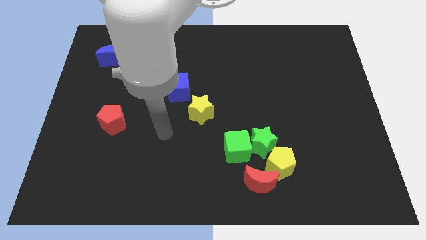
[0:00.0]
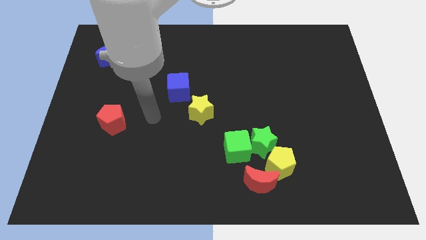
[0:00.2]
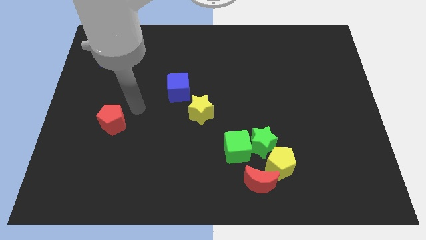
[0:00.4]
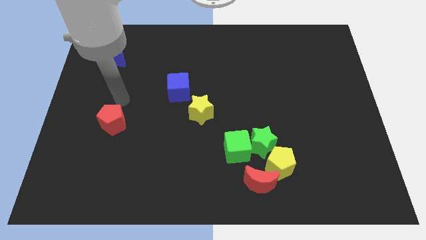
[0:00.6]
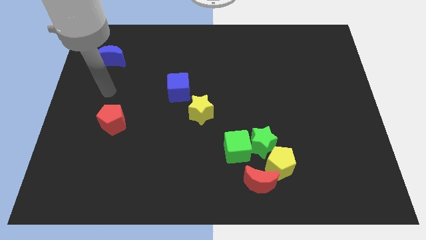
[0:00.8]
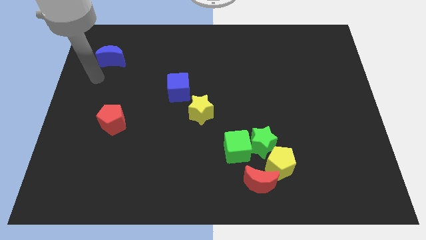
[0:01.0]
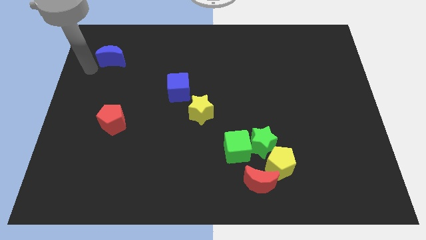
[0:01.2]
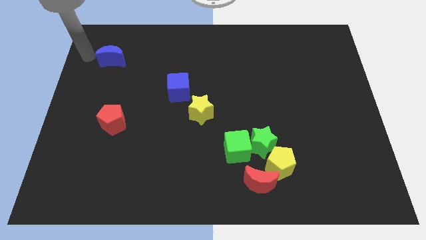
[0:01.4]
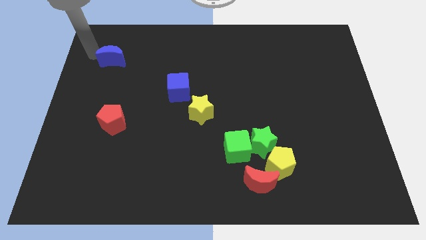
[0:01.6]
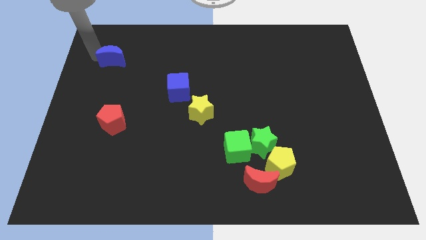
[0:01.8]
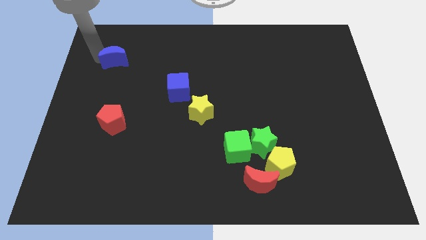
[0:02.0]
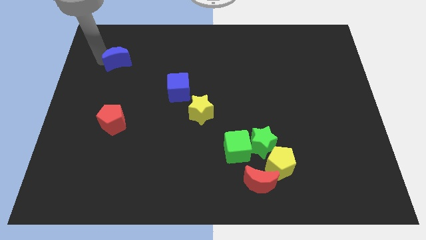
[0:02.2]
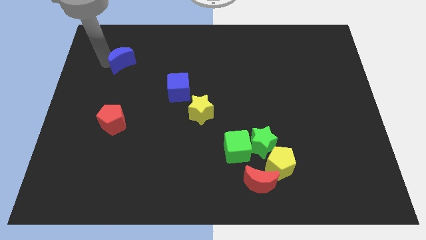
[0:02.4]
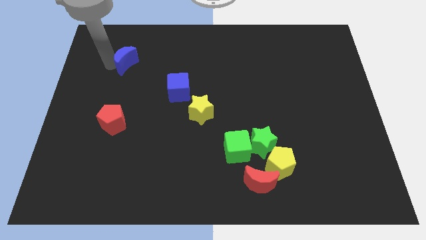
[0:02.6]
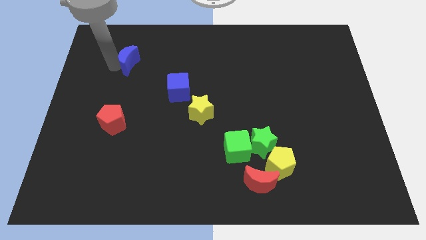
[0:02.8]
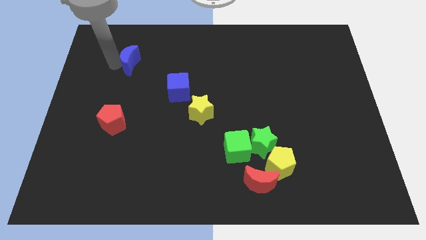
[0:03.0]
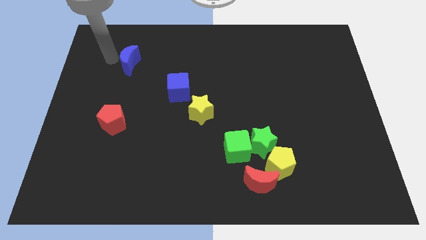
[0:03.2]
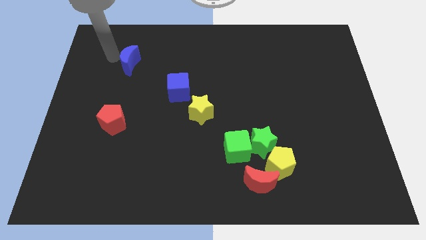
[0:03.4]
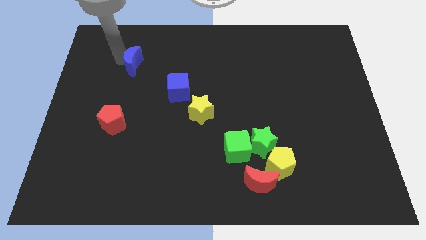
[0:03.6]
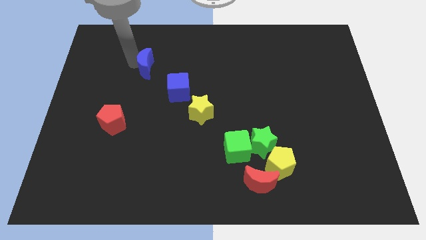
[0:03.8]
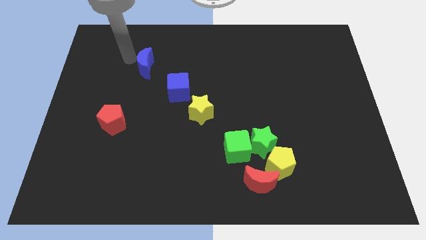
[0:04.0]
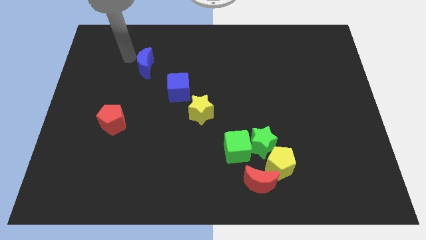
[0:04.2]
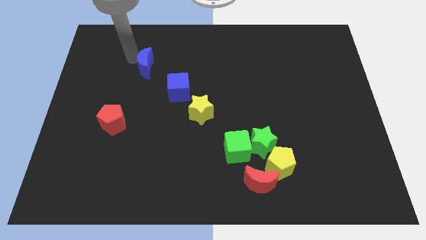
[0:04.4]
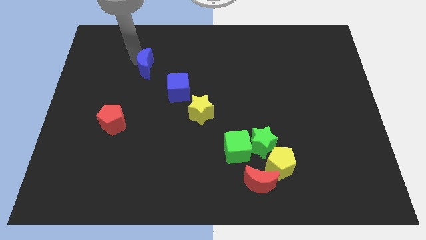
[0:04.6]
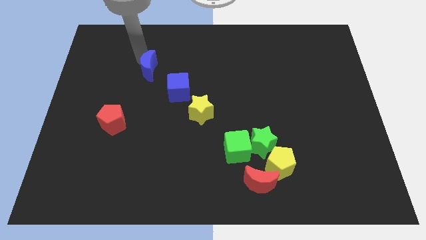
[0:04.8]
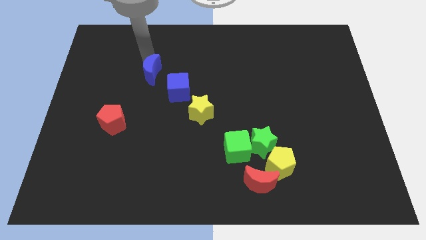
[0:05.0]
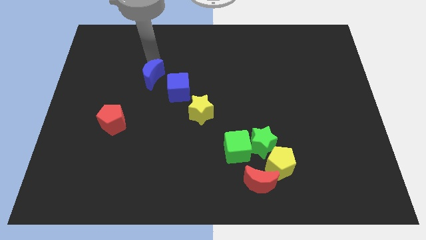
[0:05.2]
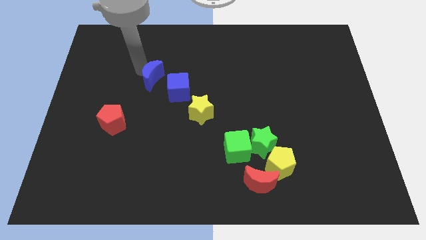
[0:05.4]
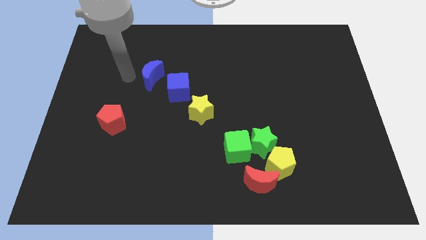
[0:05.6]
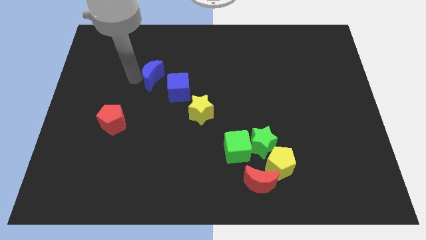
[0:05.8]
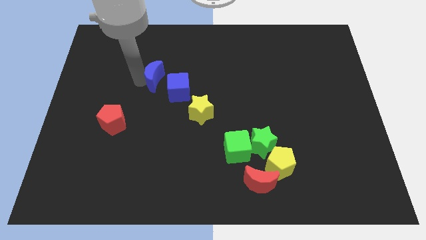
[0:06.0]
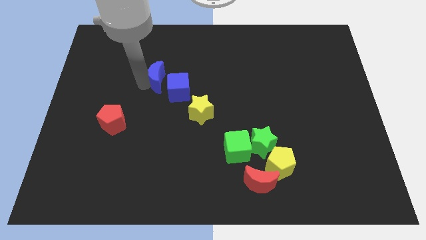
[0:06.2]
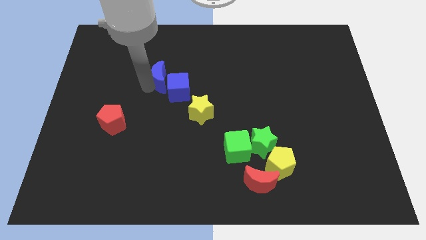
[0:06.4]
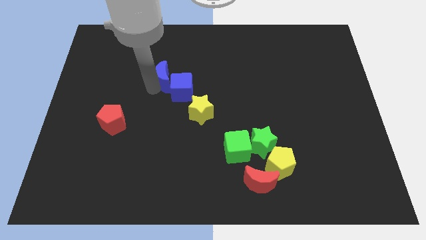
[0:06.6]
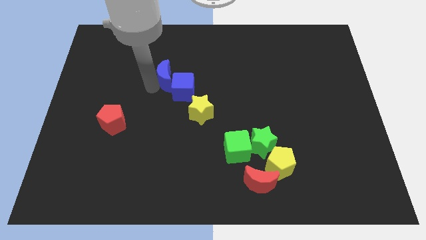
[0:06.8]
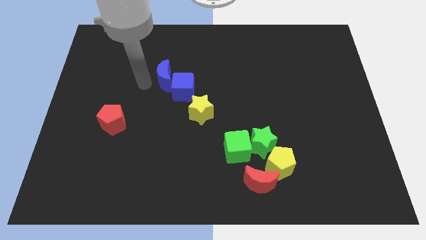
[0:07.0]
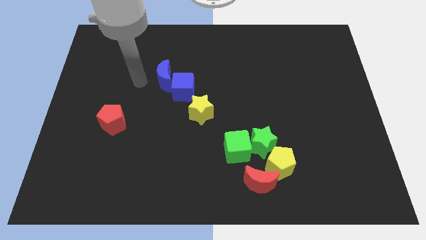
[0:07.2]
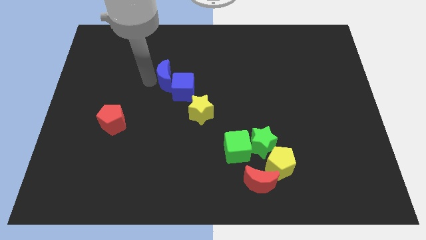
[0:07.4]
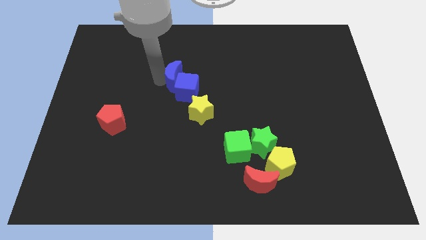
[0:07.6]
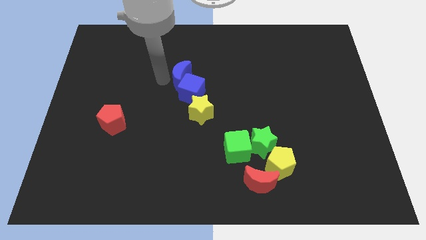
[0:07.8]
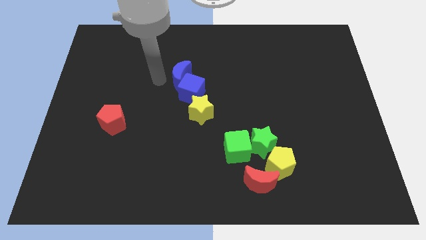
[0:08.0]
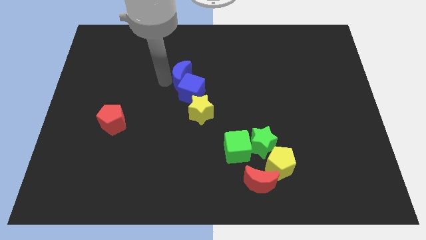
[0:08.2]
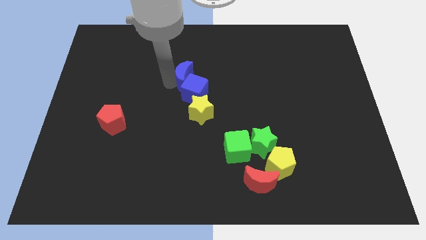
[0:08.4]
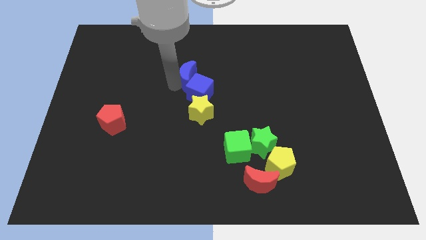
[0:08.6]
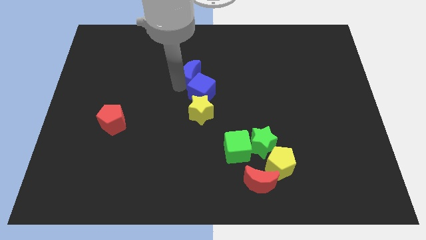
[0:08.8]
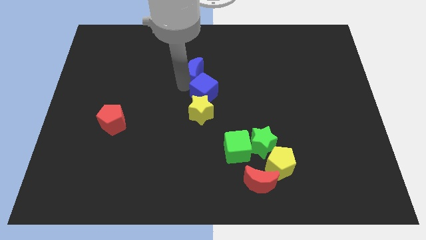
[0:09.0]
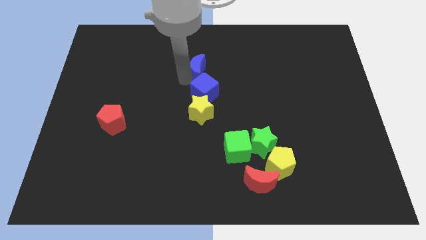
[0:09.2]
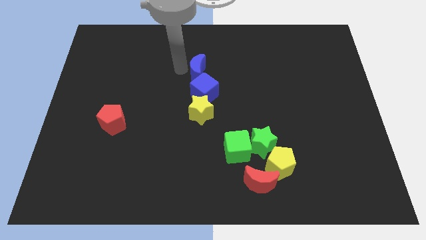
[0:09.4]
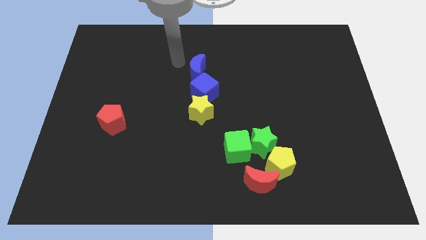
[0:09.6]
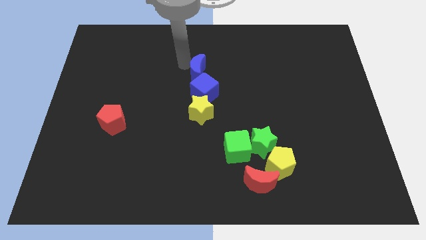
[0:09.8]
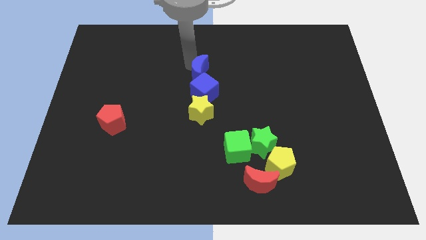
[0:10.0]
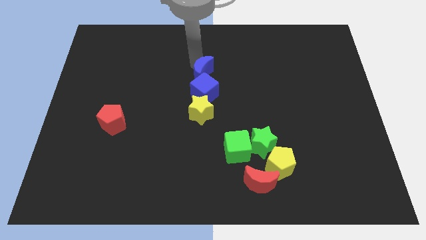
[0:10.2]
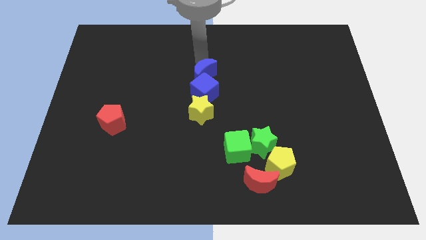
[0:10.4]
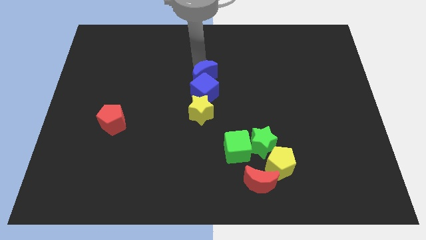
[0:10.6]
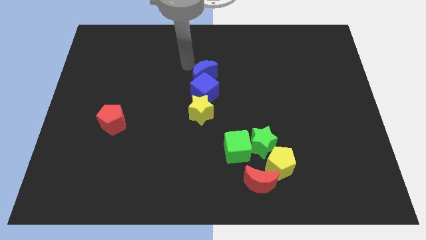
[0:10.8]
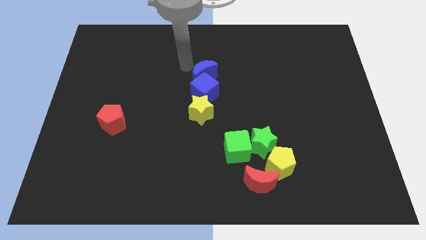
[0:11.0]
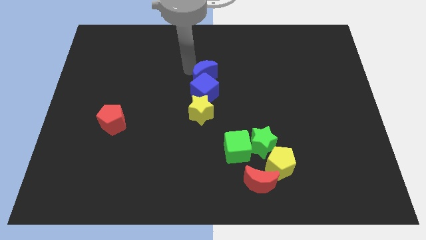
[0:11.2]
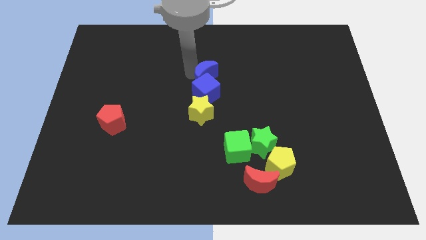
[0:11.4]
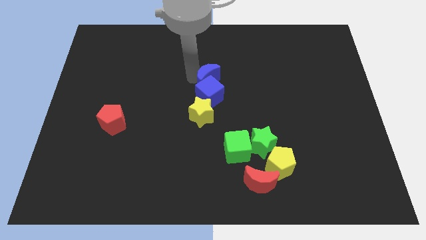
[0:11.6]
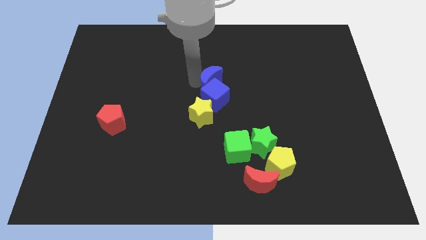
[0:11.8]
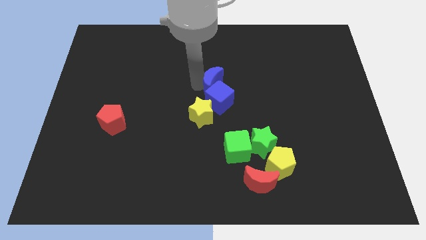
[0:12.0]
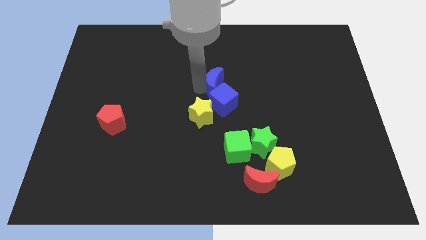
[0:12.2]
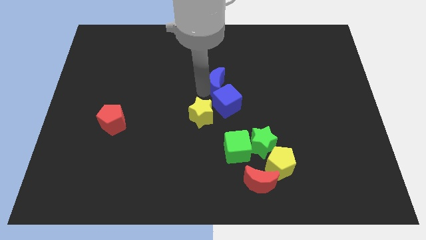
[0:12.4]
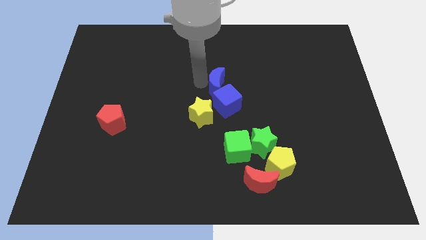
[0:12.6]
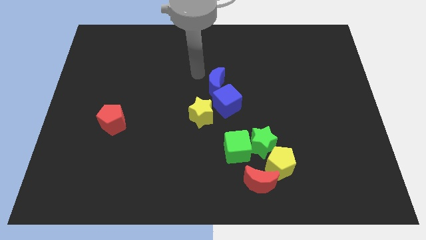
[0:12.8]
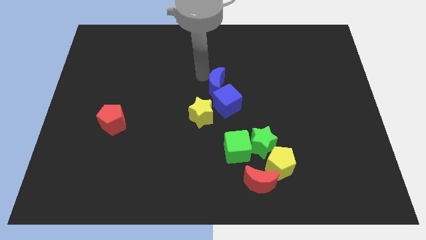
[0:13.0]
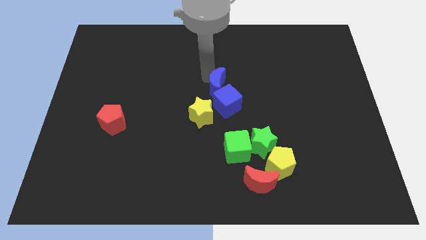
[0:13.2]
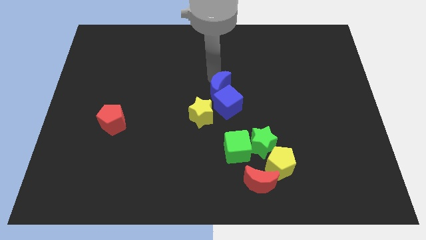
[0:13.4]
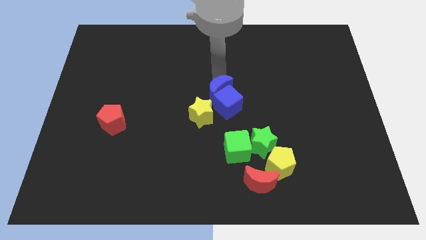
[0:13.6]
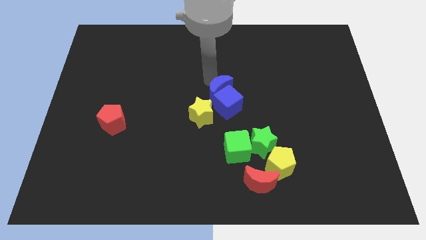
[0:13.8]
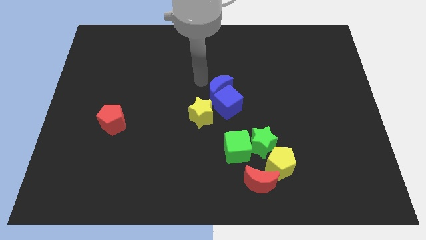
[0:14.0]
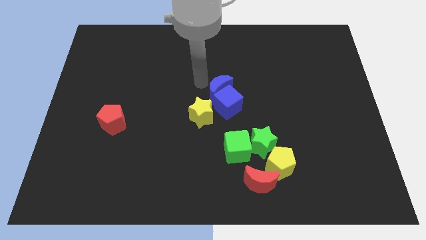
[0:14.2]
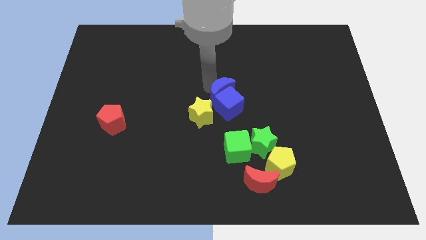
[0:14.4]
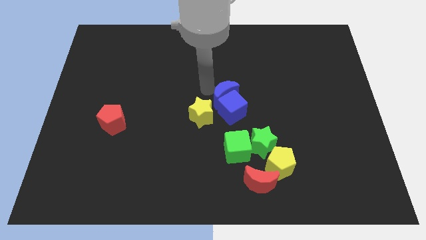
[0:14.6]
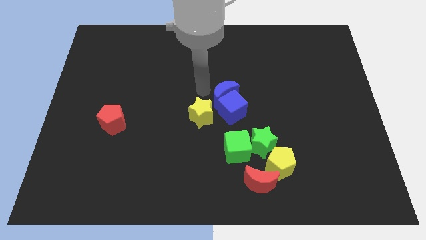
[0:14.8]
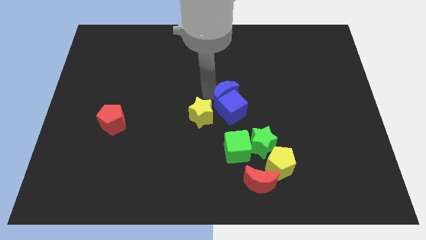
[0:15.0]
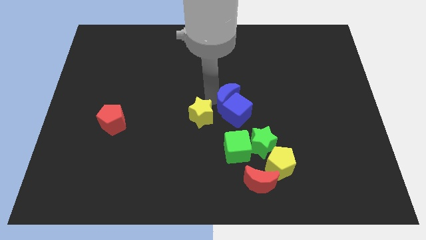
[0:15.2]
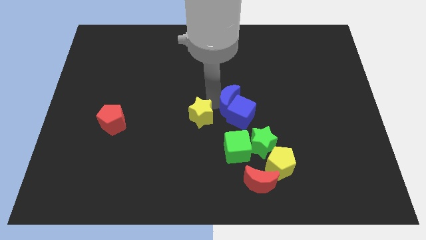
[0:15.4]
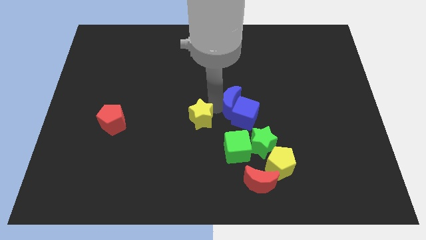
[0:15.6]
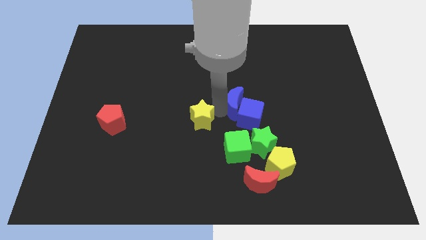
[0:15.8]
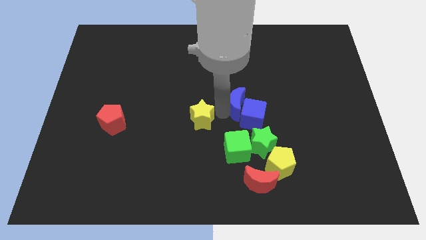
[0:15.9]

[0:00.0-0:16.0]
move the blue moon to the top of the green star
